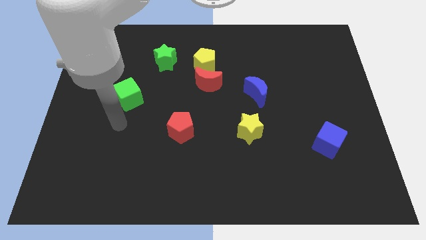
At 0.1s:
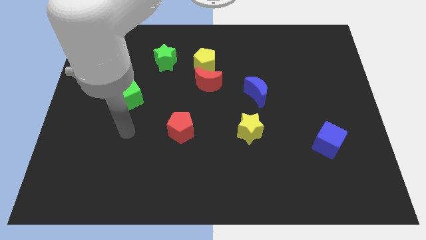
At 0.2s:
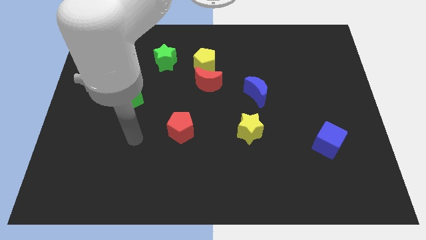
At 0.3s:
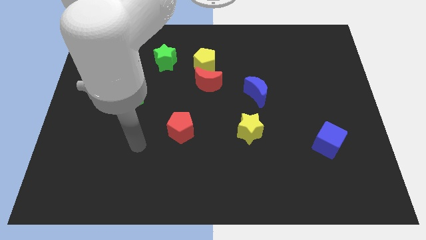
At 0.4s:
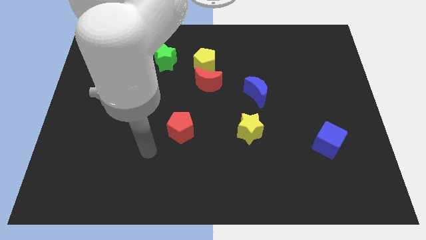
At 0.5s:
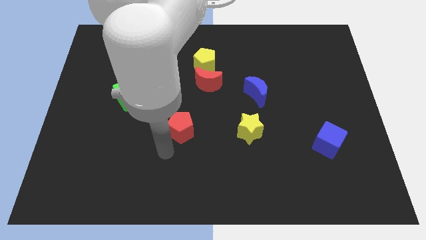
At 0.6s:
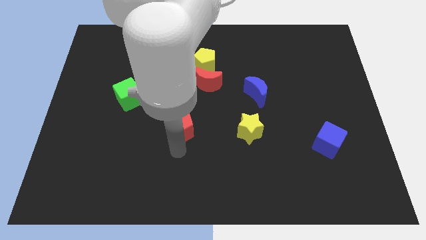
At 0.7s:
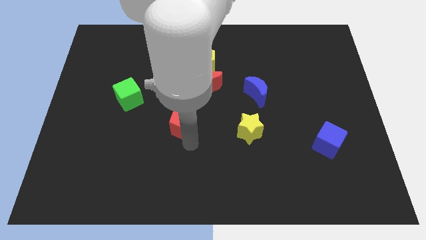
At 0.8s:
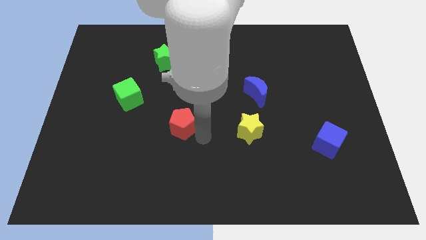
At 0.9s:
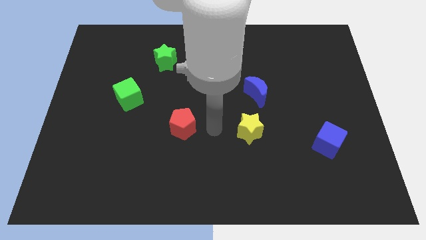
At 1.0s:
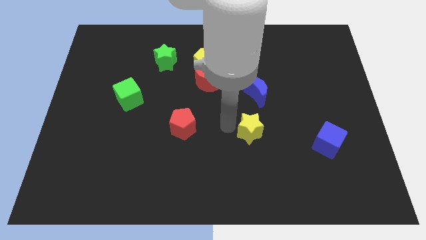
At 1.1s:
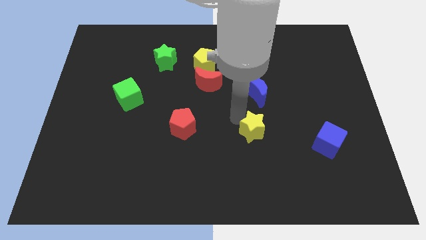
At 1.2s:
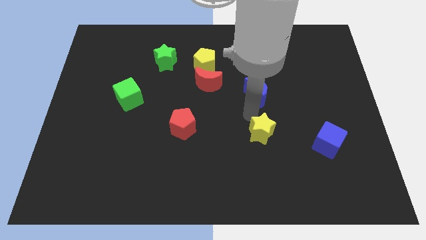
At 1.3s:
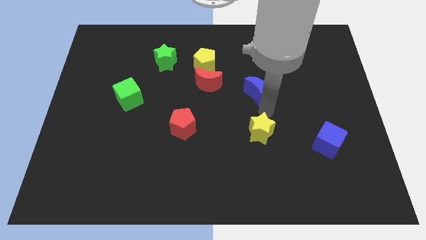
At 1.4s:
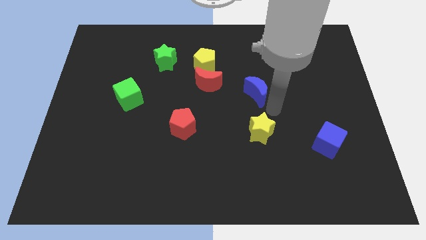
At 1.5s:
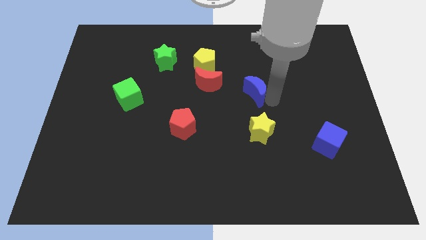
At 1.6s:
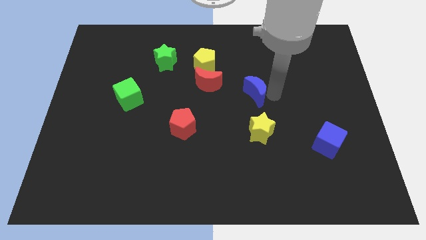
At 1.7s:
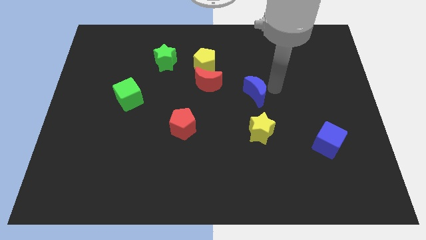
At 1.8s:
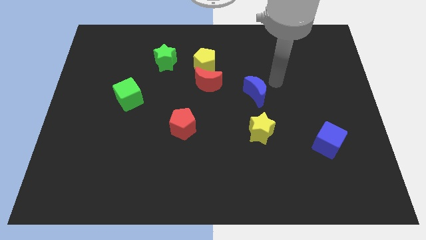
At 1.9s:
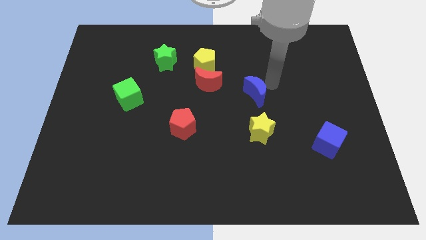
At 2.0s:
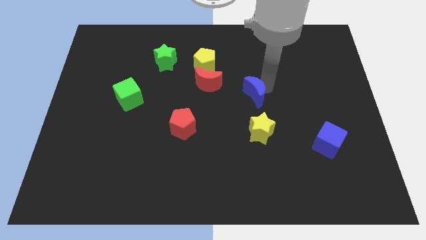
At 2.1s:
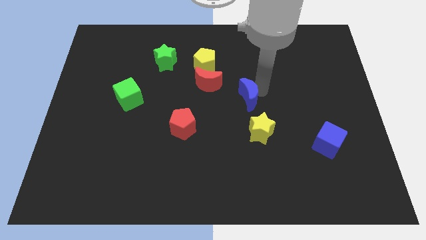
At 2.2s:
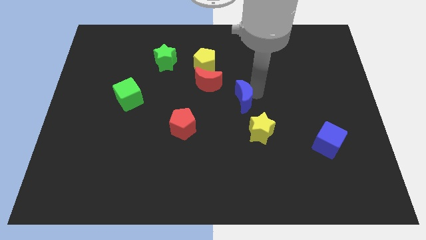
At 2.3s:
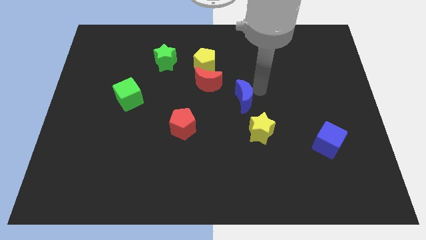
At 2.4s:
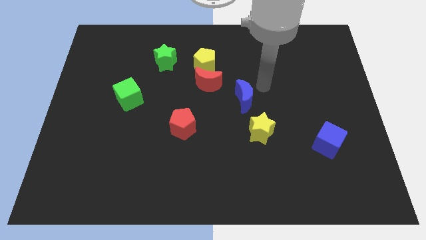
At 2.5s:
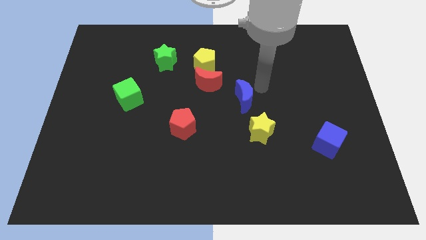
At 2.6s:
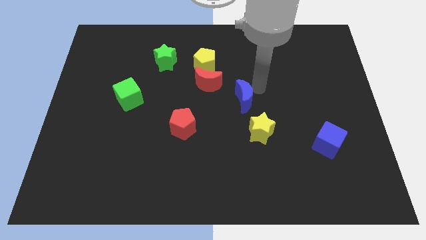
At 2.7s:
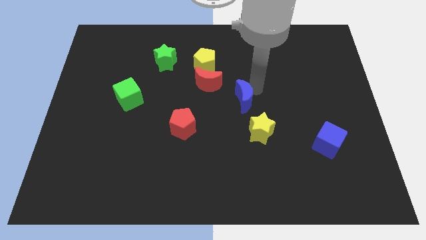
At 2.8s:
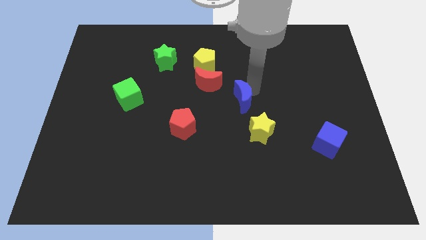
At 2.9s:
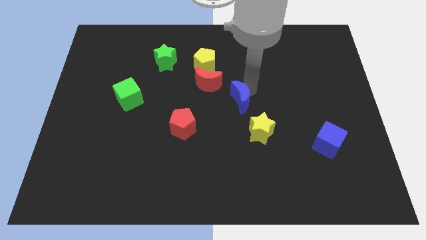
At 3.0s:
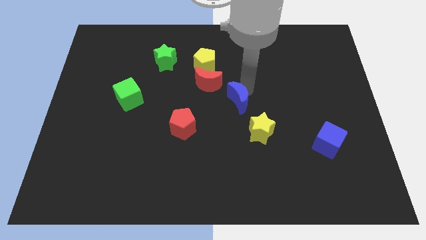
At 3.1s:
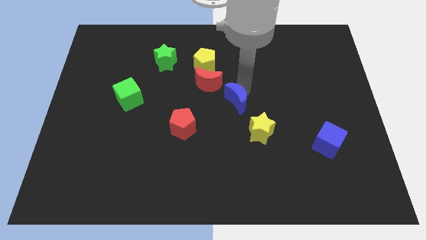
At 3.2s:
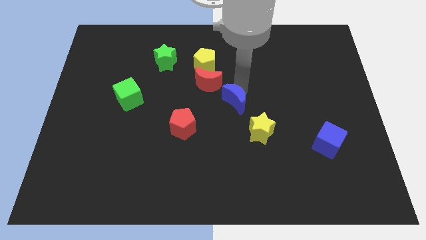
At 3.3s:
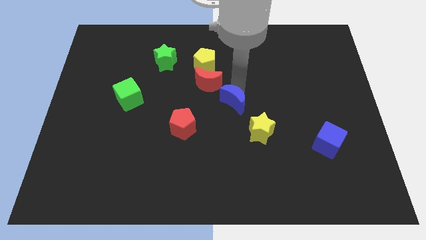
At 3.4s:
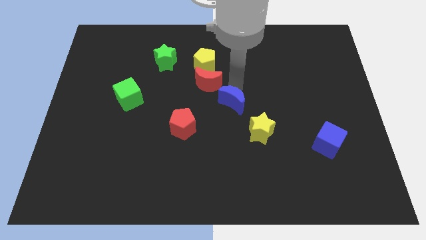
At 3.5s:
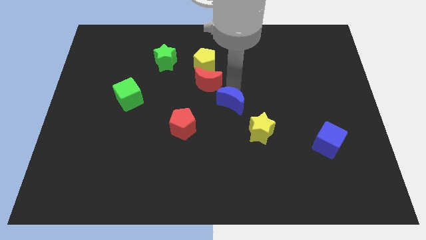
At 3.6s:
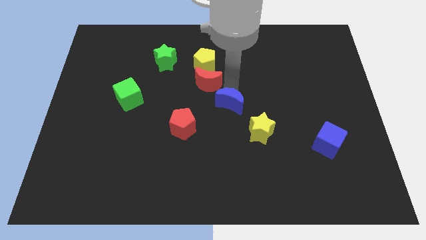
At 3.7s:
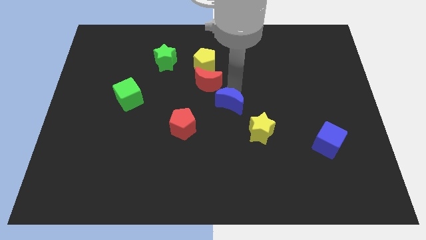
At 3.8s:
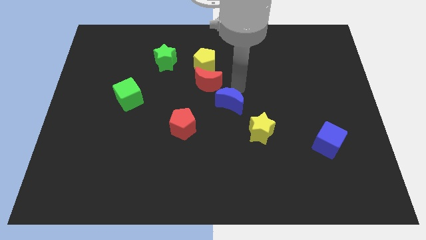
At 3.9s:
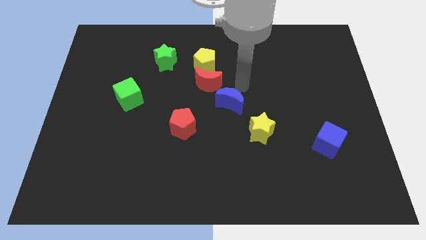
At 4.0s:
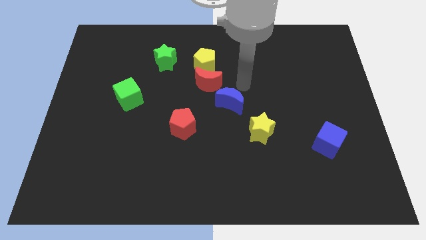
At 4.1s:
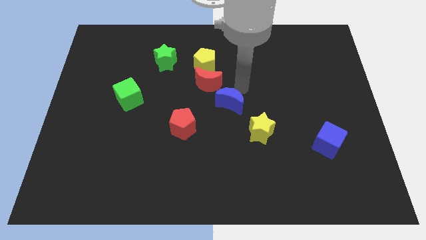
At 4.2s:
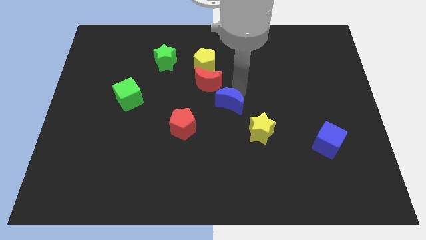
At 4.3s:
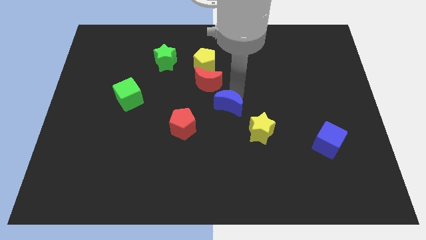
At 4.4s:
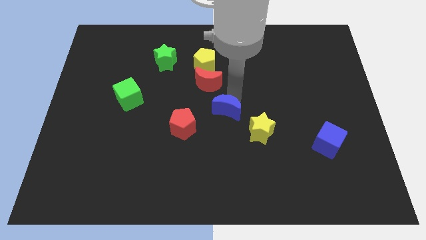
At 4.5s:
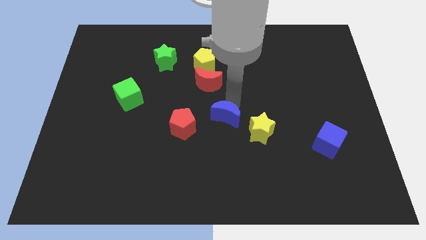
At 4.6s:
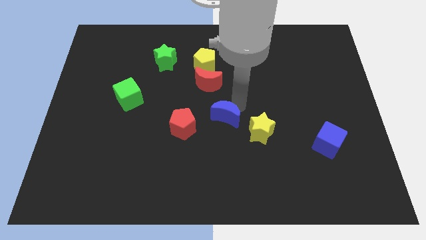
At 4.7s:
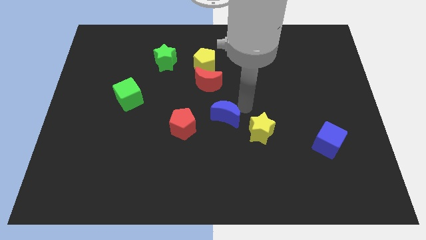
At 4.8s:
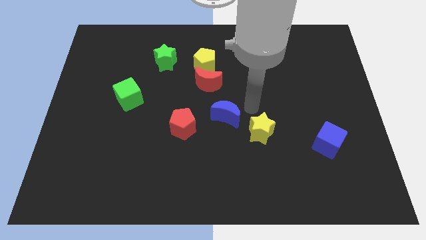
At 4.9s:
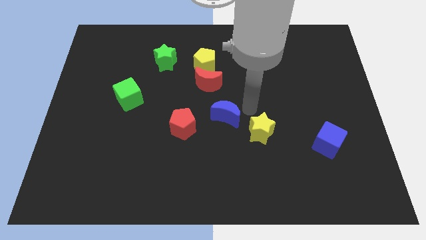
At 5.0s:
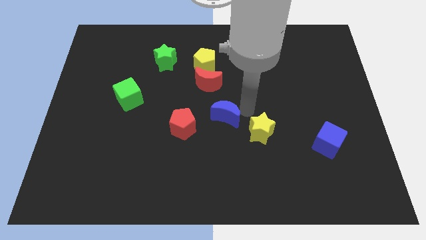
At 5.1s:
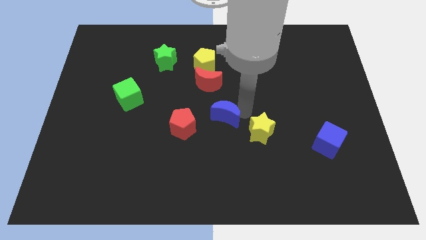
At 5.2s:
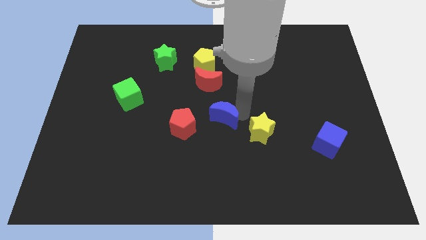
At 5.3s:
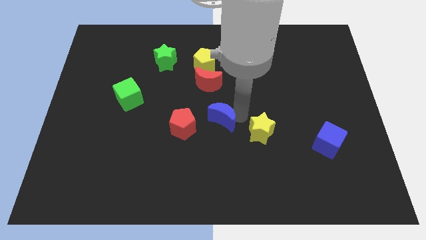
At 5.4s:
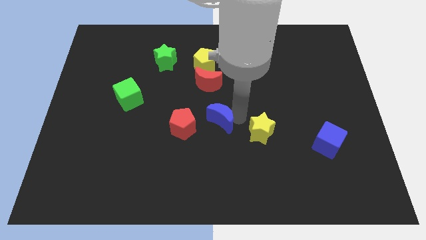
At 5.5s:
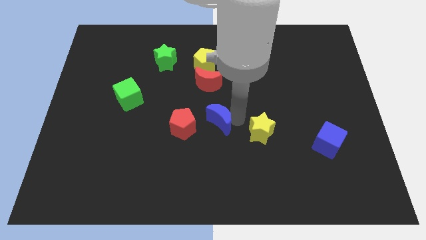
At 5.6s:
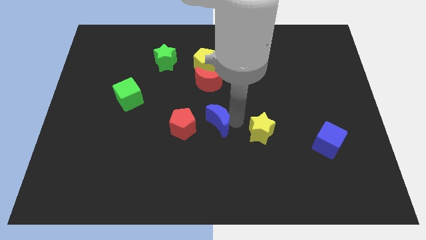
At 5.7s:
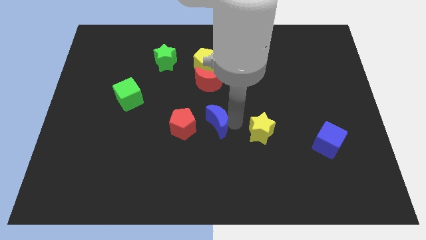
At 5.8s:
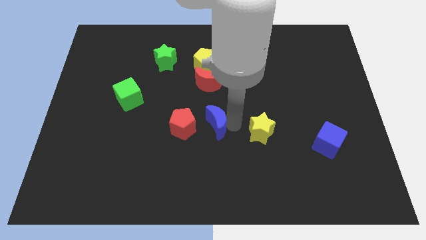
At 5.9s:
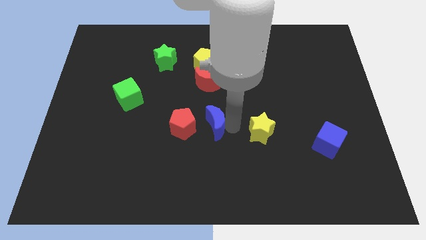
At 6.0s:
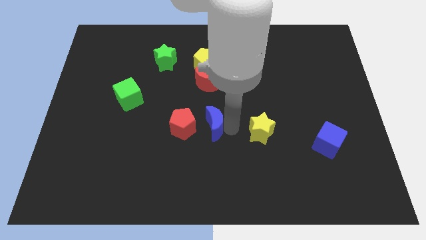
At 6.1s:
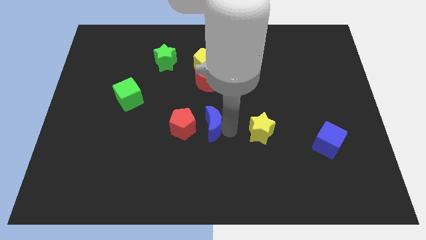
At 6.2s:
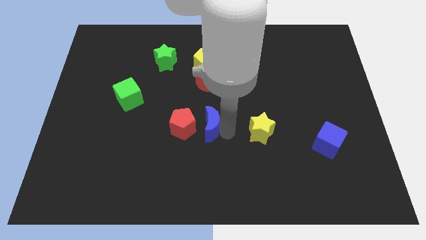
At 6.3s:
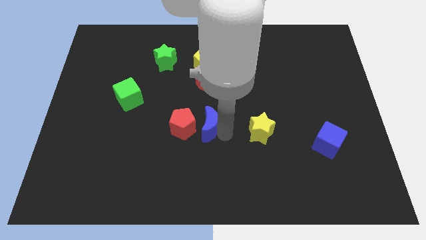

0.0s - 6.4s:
put the blue moon next to the red pentagon

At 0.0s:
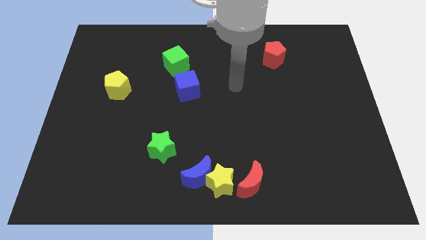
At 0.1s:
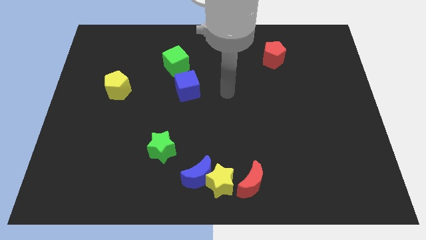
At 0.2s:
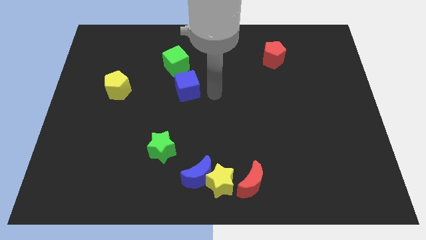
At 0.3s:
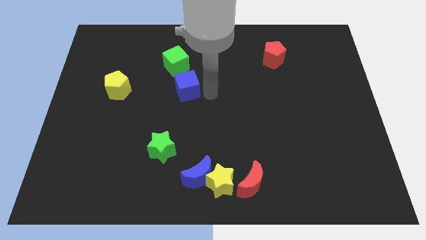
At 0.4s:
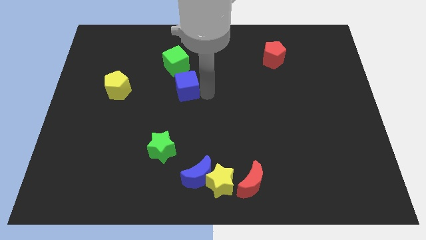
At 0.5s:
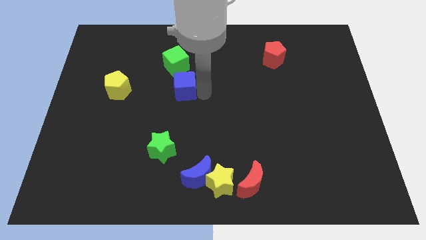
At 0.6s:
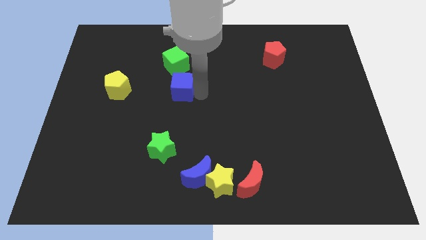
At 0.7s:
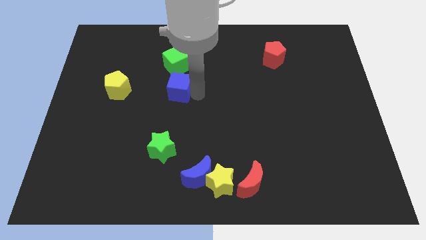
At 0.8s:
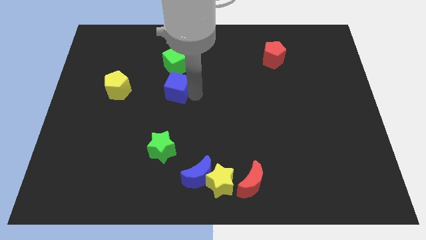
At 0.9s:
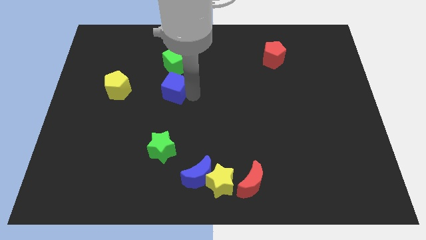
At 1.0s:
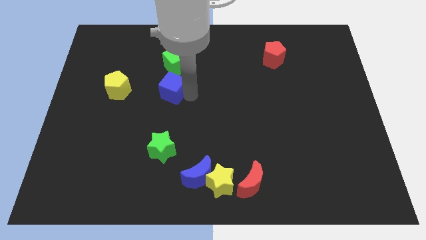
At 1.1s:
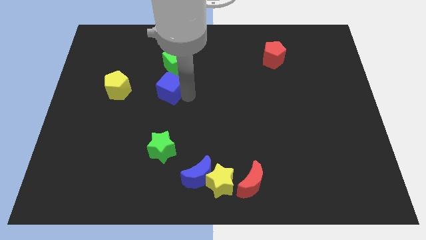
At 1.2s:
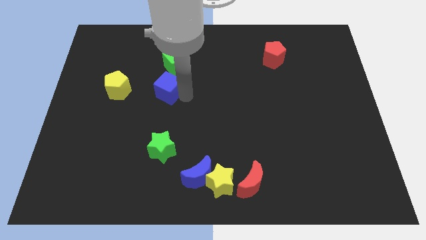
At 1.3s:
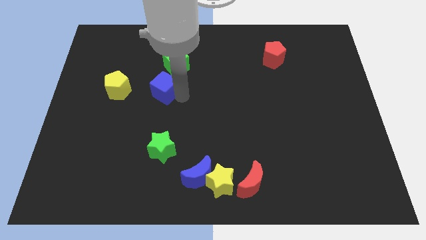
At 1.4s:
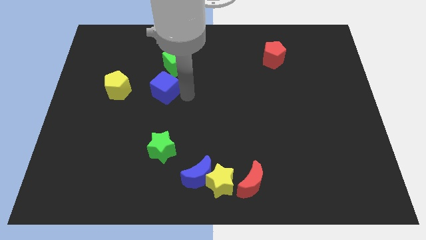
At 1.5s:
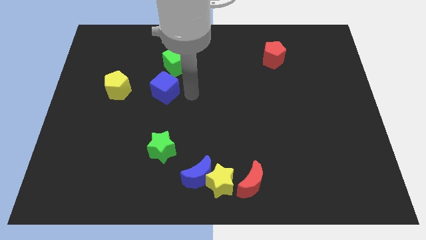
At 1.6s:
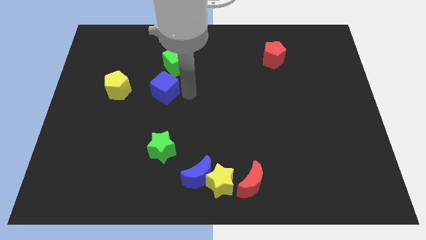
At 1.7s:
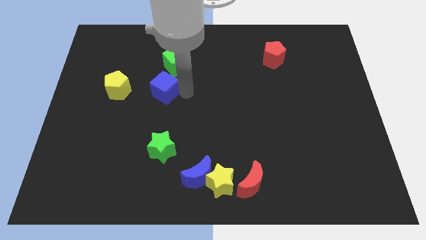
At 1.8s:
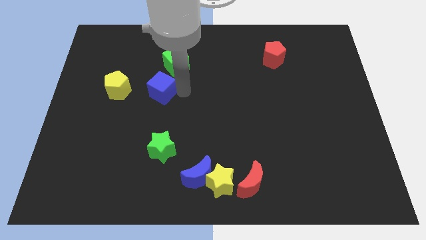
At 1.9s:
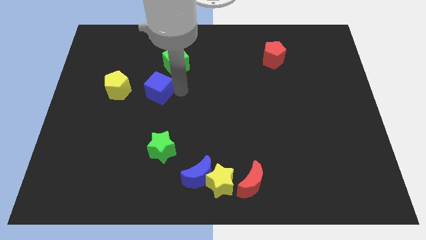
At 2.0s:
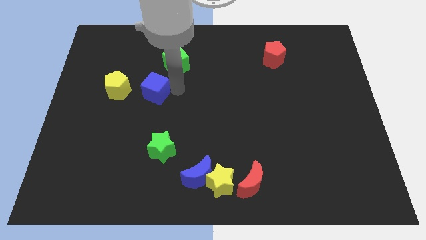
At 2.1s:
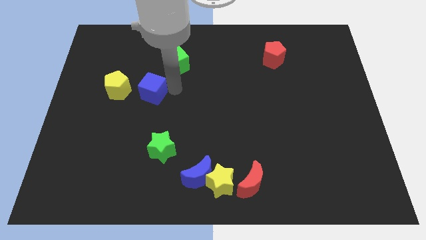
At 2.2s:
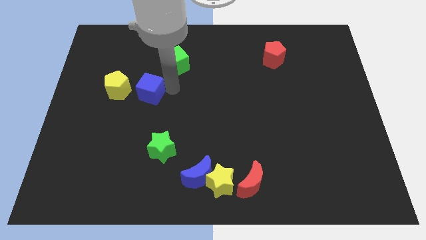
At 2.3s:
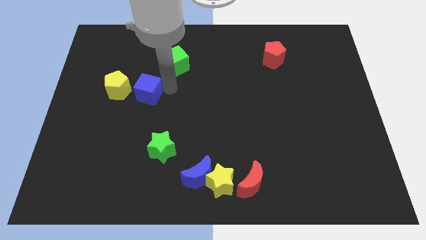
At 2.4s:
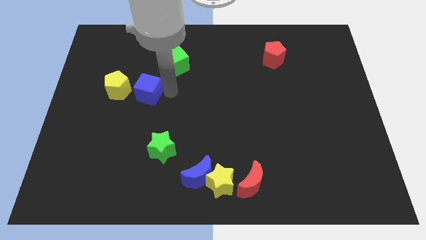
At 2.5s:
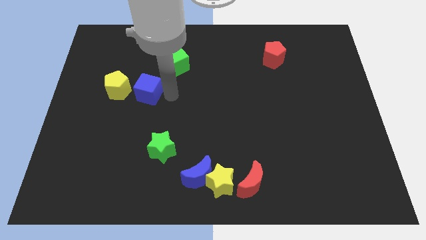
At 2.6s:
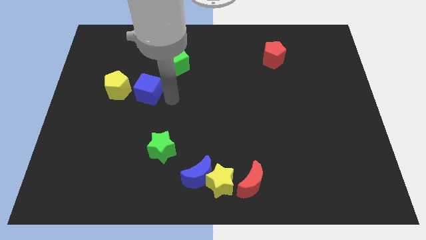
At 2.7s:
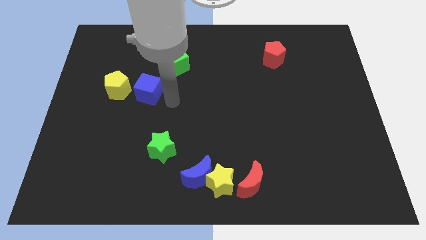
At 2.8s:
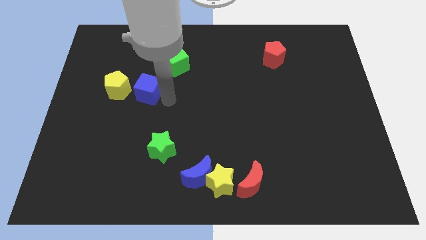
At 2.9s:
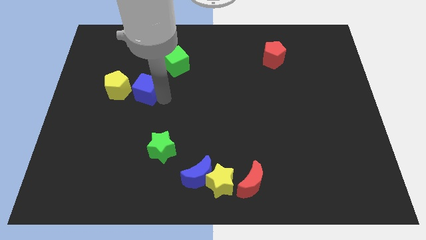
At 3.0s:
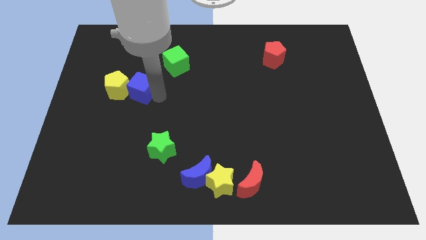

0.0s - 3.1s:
push the blue cube close to the yellow pentagon
